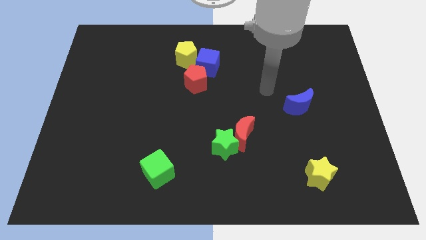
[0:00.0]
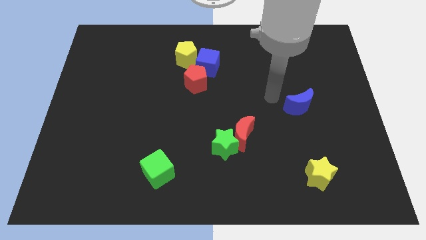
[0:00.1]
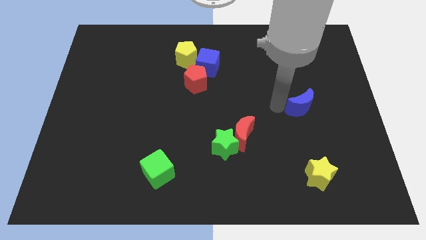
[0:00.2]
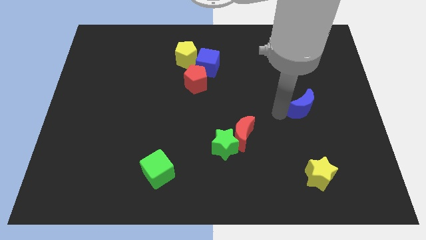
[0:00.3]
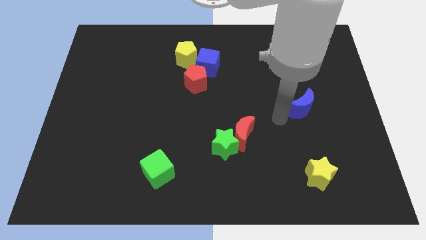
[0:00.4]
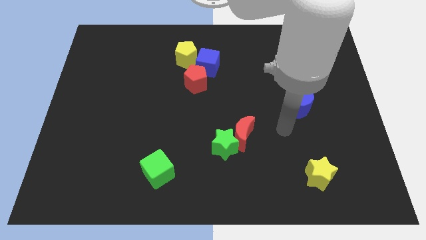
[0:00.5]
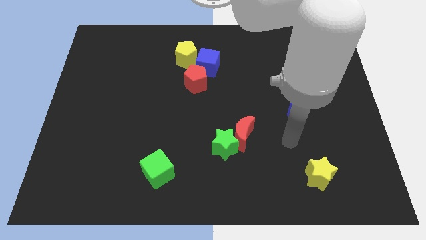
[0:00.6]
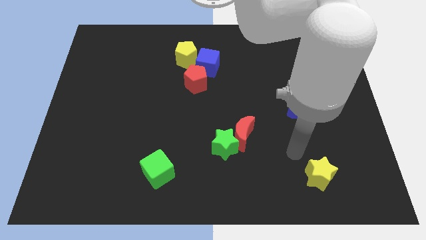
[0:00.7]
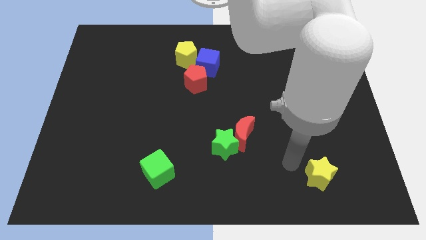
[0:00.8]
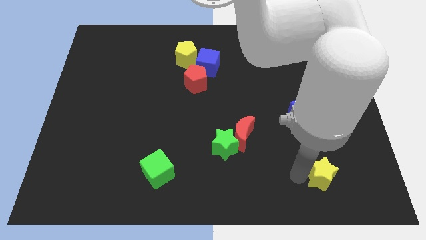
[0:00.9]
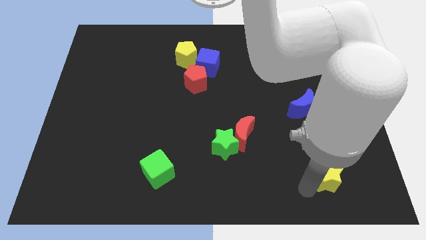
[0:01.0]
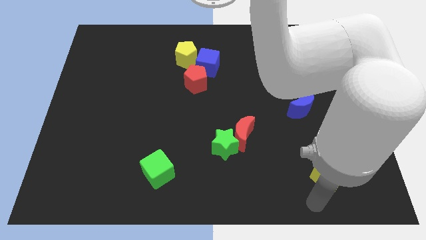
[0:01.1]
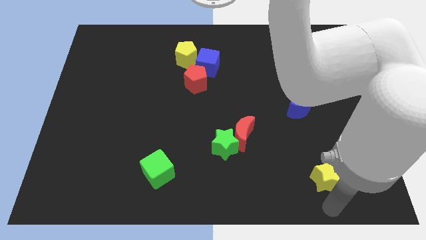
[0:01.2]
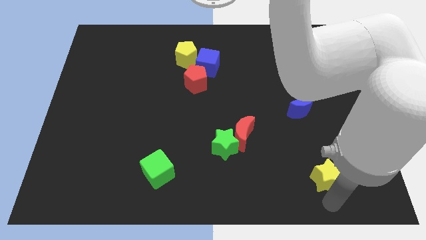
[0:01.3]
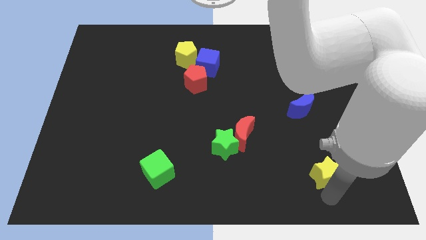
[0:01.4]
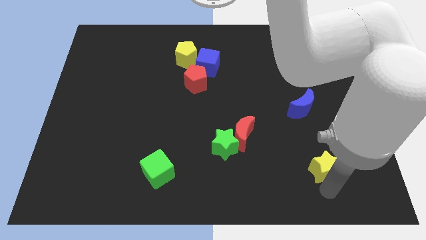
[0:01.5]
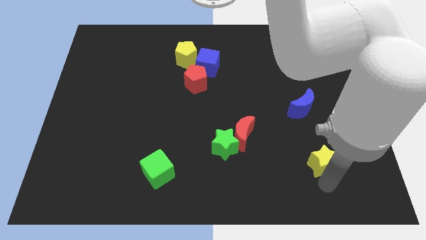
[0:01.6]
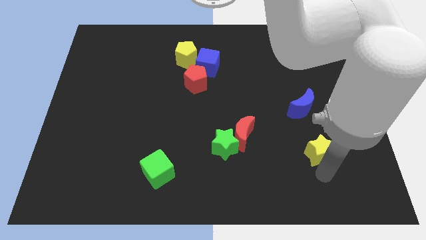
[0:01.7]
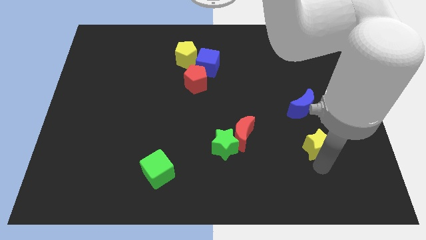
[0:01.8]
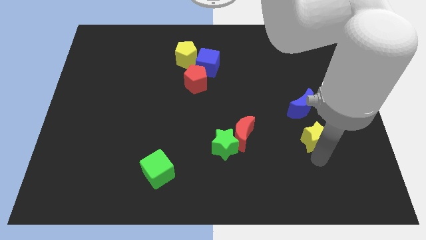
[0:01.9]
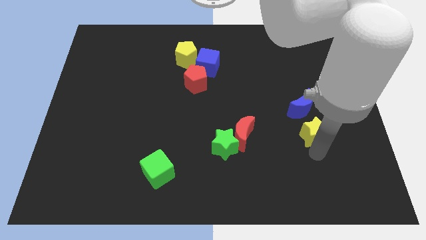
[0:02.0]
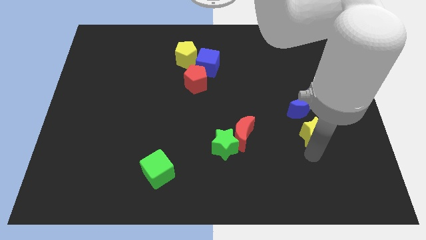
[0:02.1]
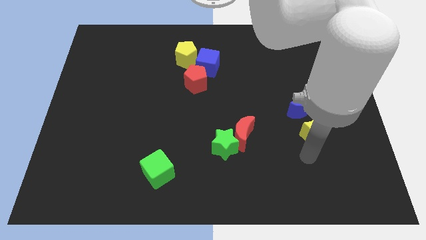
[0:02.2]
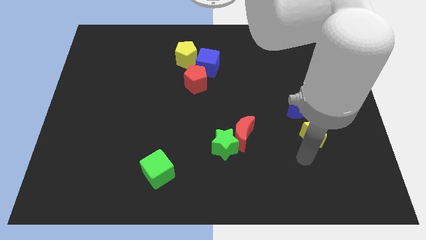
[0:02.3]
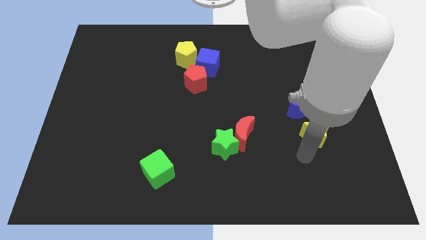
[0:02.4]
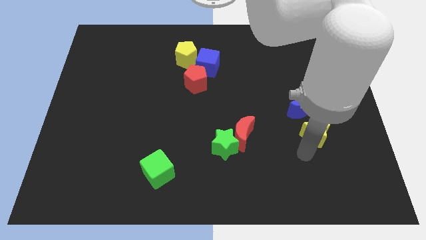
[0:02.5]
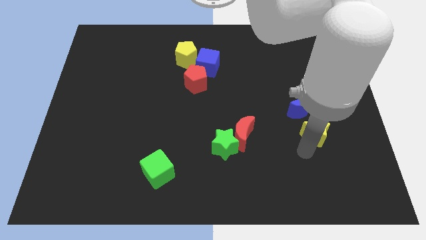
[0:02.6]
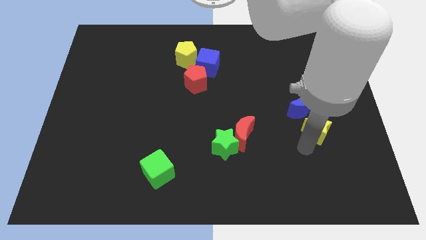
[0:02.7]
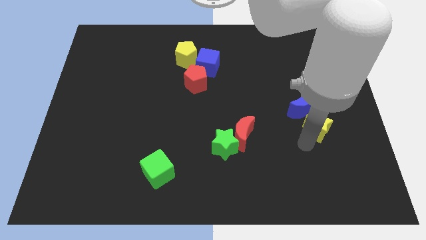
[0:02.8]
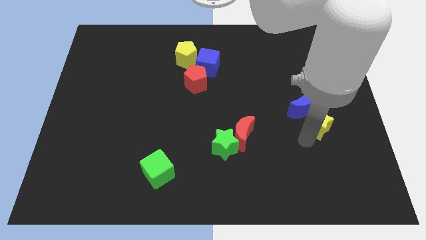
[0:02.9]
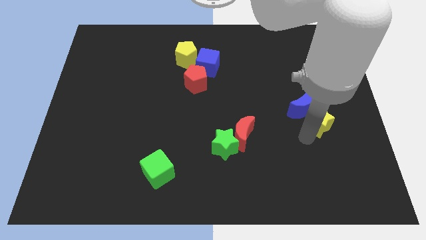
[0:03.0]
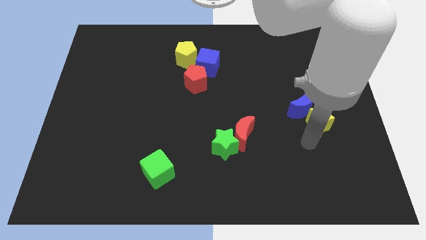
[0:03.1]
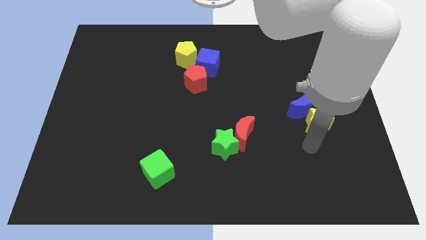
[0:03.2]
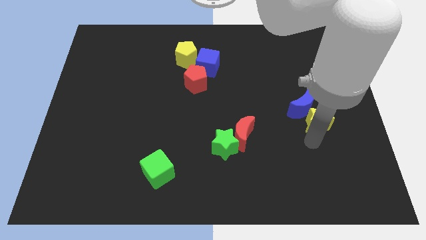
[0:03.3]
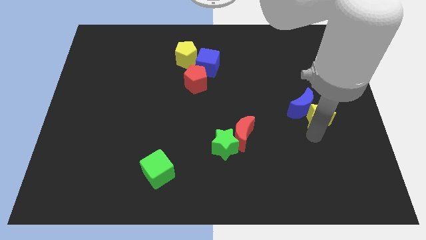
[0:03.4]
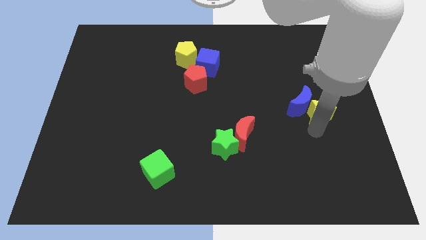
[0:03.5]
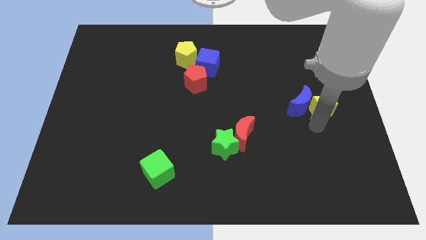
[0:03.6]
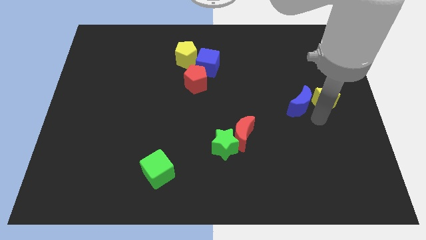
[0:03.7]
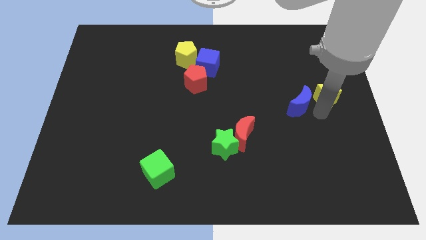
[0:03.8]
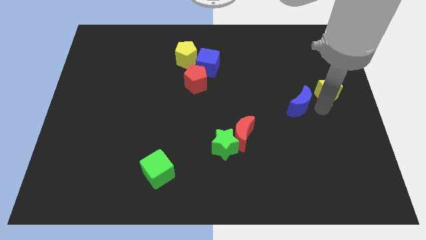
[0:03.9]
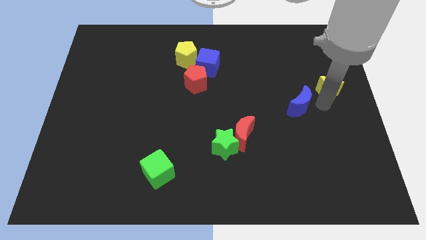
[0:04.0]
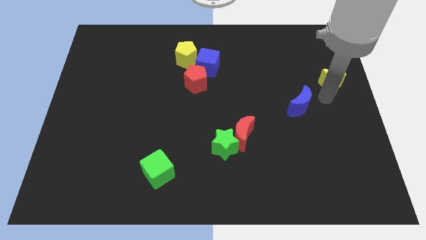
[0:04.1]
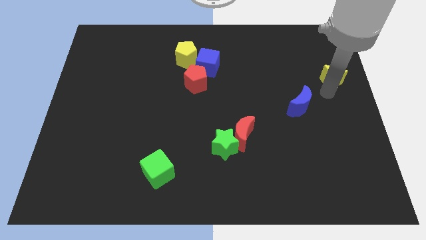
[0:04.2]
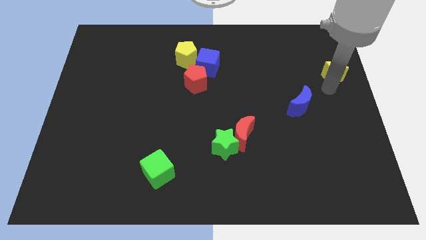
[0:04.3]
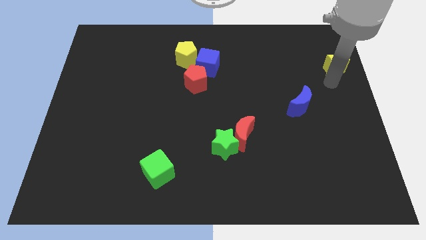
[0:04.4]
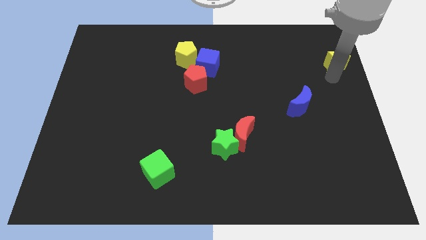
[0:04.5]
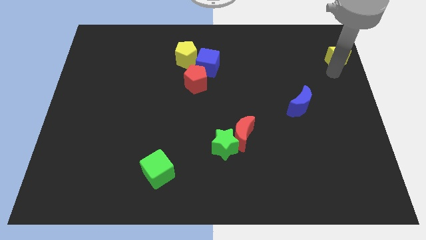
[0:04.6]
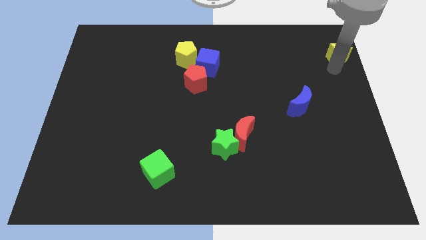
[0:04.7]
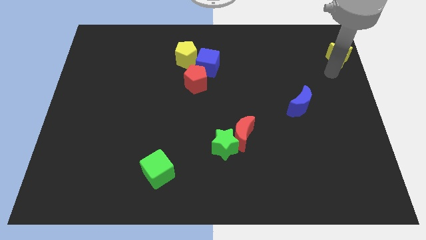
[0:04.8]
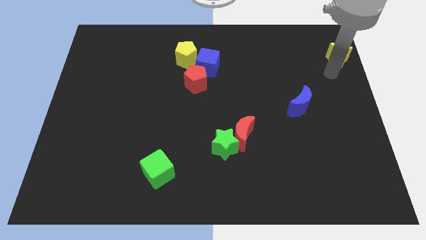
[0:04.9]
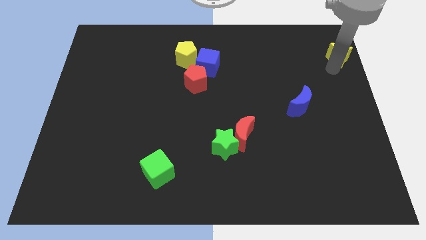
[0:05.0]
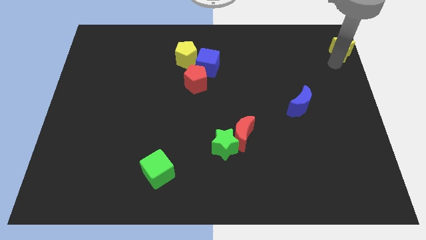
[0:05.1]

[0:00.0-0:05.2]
move the yellow star to the upper right corner

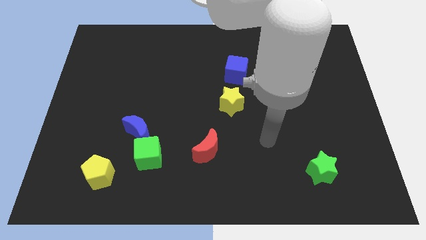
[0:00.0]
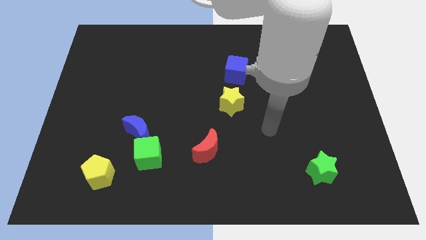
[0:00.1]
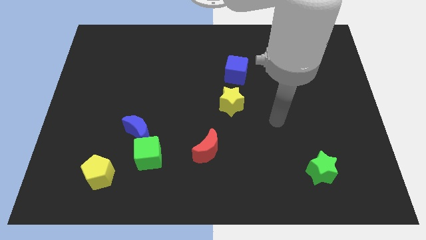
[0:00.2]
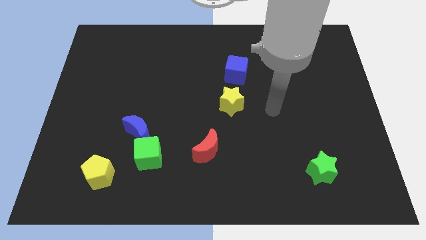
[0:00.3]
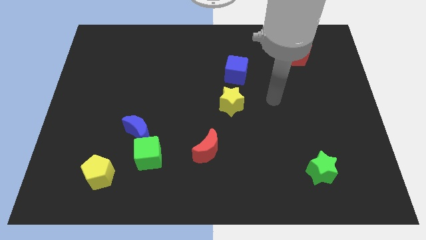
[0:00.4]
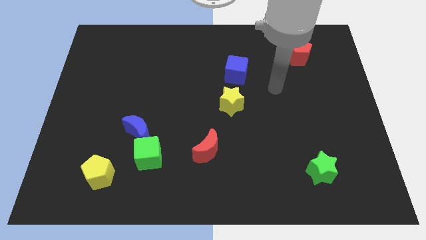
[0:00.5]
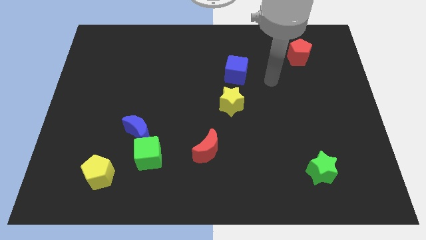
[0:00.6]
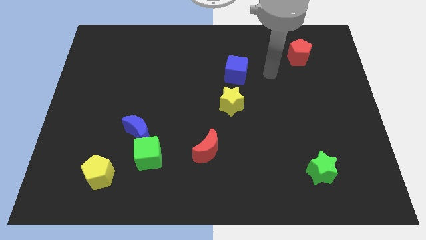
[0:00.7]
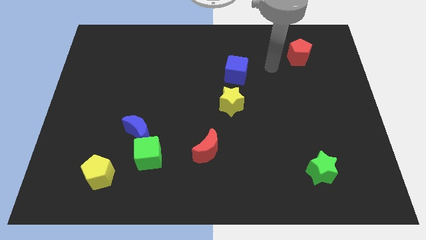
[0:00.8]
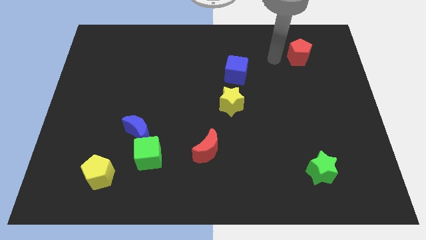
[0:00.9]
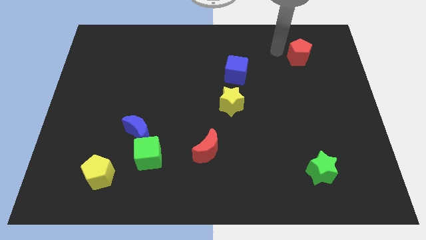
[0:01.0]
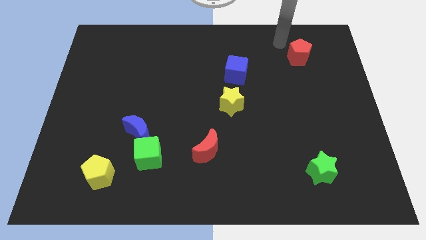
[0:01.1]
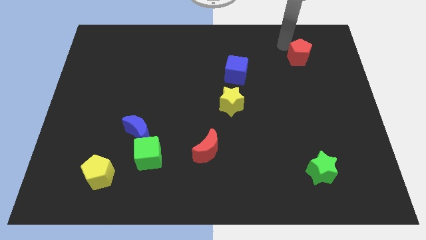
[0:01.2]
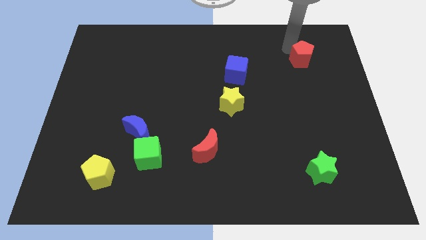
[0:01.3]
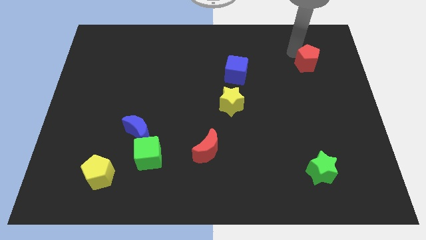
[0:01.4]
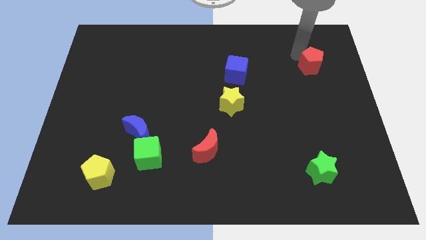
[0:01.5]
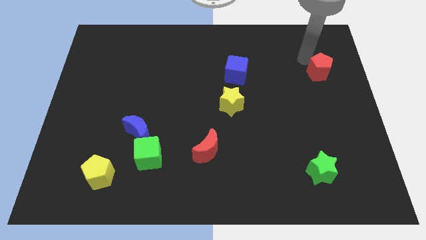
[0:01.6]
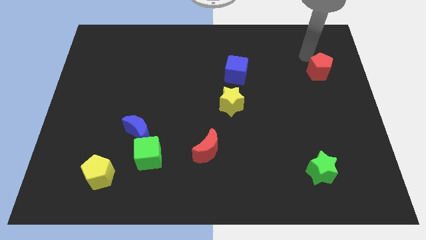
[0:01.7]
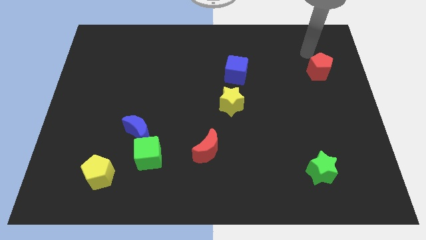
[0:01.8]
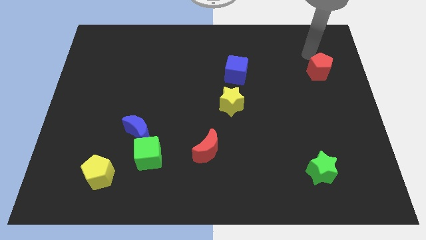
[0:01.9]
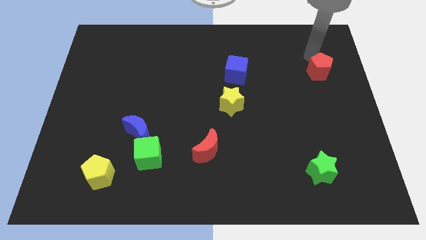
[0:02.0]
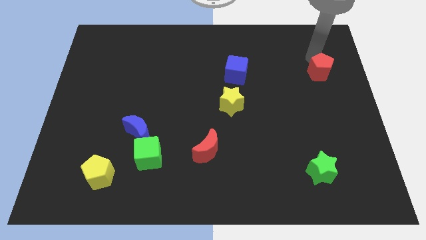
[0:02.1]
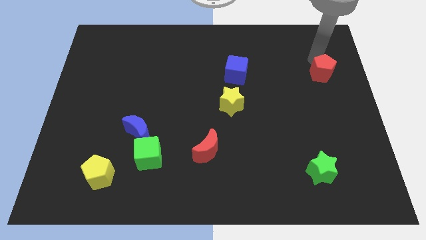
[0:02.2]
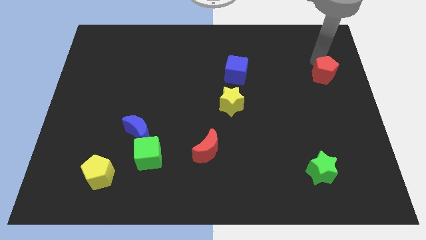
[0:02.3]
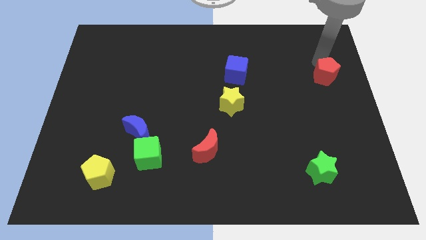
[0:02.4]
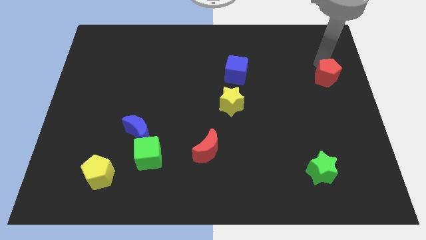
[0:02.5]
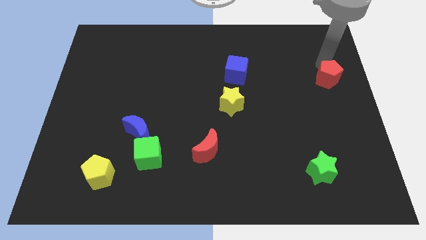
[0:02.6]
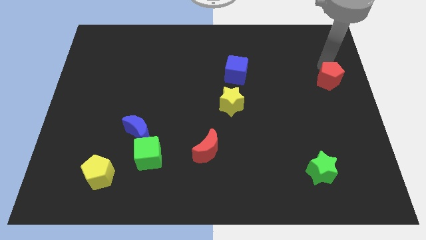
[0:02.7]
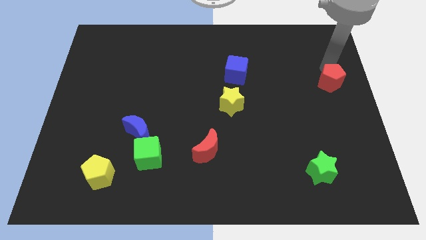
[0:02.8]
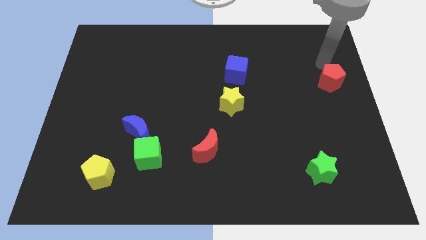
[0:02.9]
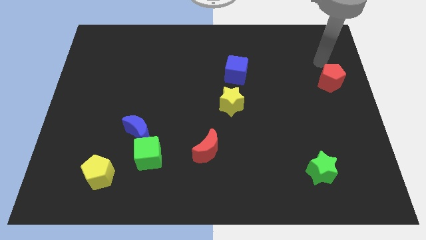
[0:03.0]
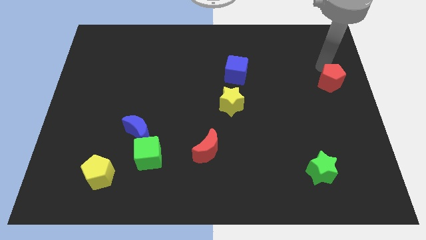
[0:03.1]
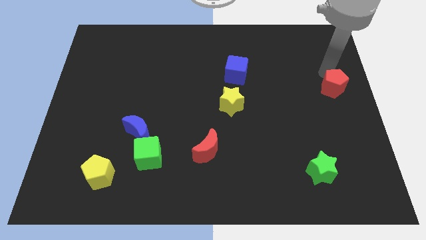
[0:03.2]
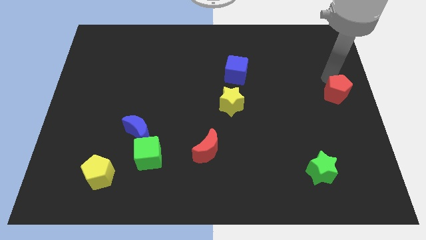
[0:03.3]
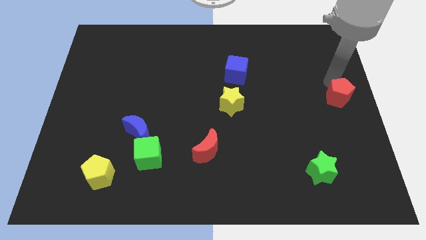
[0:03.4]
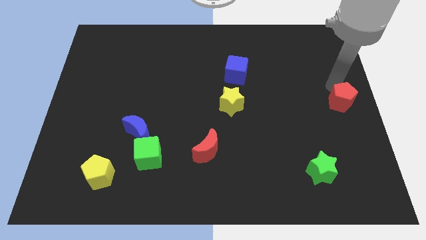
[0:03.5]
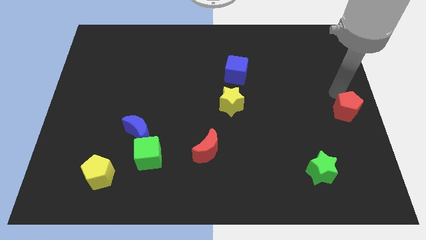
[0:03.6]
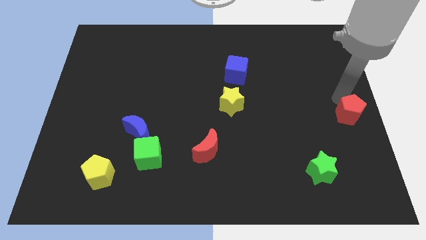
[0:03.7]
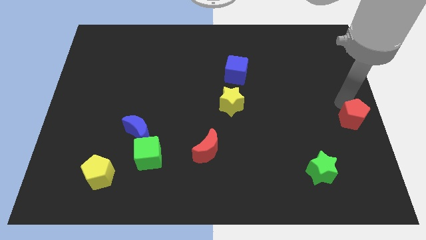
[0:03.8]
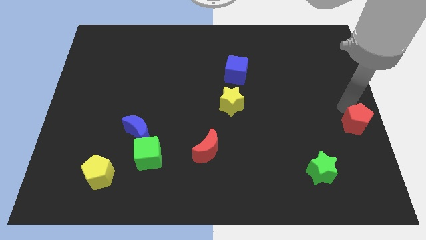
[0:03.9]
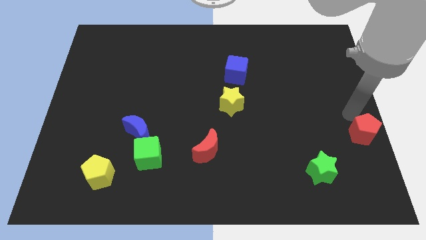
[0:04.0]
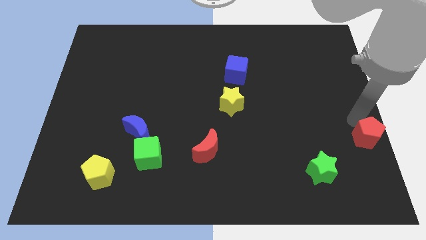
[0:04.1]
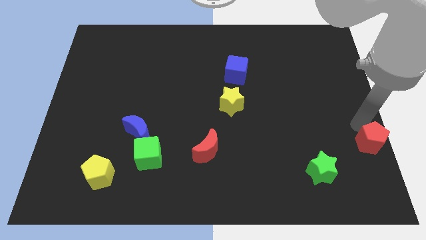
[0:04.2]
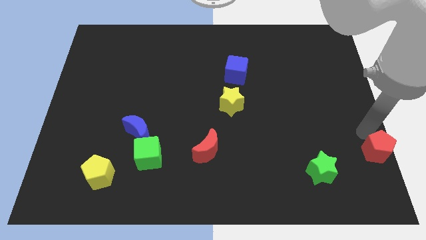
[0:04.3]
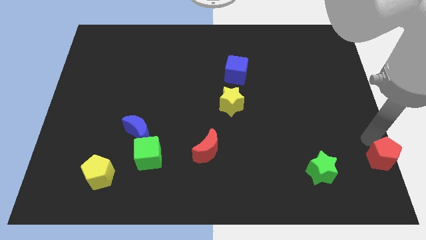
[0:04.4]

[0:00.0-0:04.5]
push the red pentagon to the lower right corner
